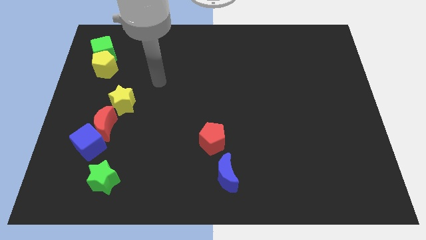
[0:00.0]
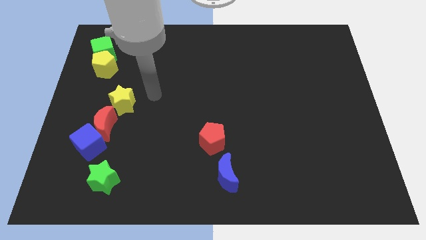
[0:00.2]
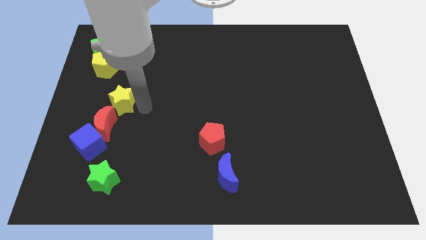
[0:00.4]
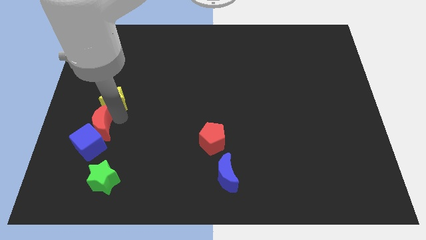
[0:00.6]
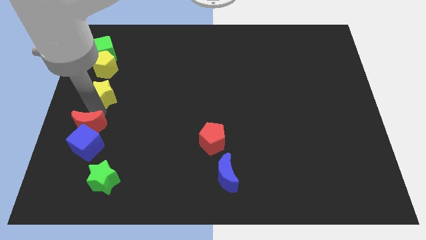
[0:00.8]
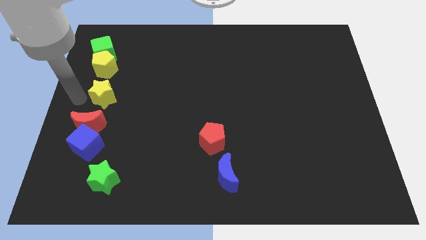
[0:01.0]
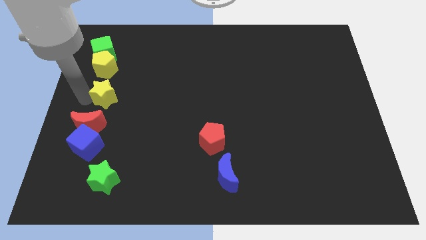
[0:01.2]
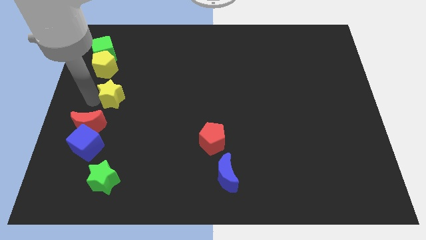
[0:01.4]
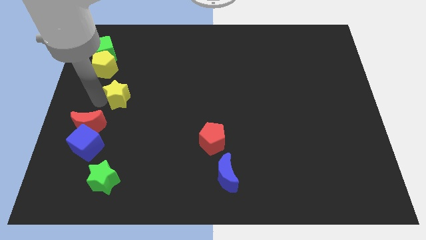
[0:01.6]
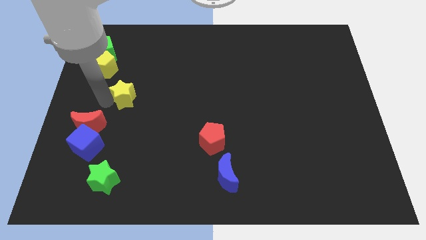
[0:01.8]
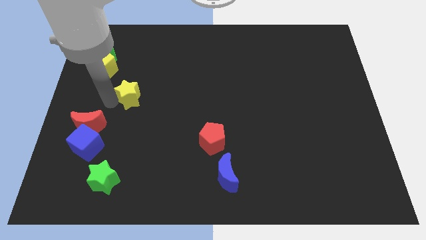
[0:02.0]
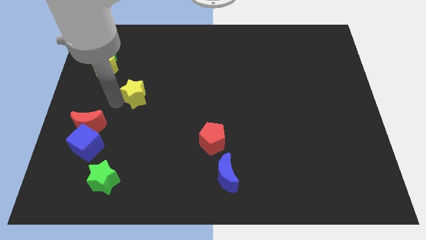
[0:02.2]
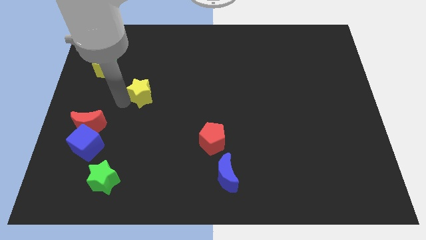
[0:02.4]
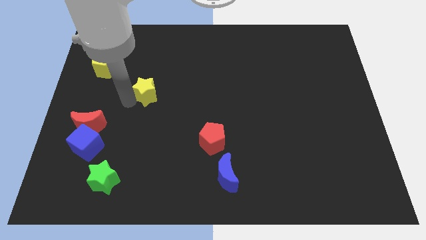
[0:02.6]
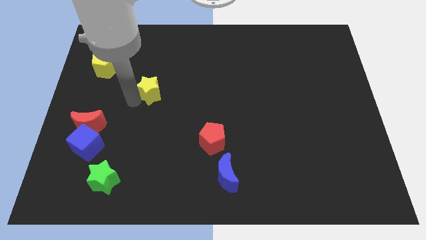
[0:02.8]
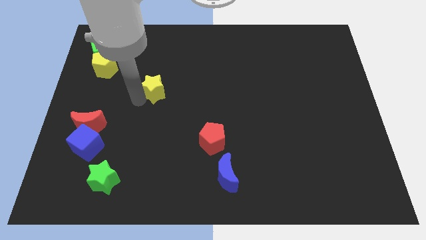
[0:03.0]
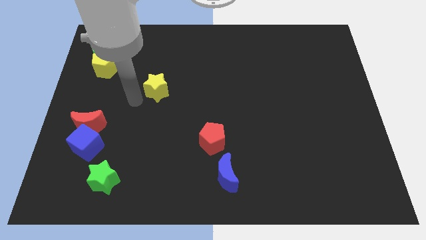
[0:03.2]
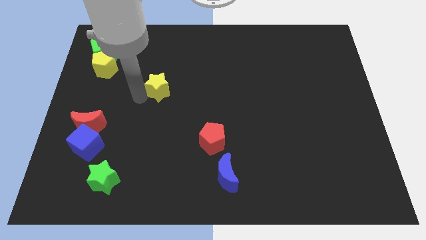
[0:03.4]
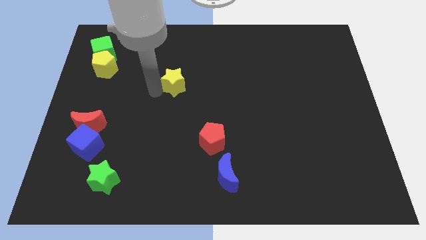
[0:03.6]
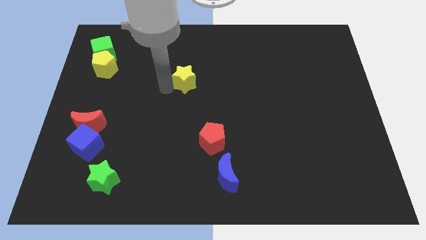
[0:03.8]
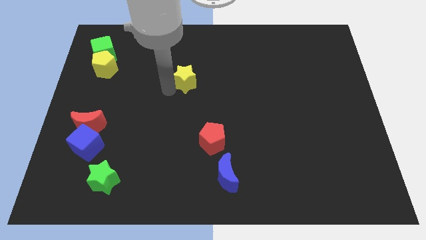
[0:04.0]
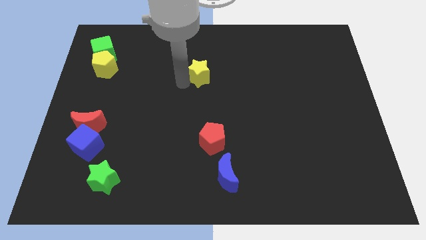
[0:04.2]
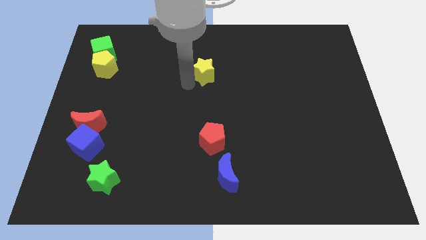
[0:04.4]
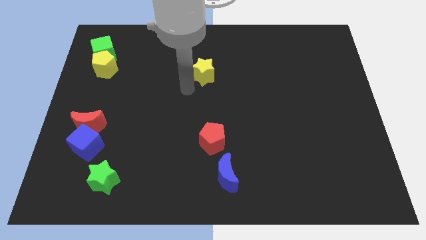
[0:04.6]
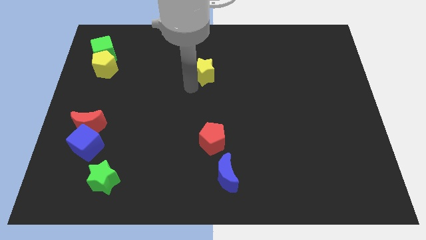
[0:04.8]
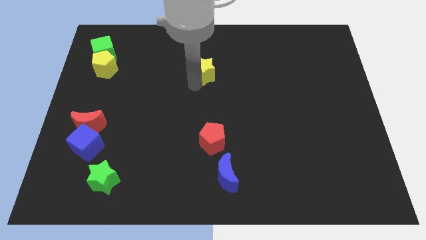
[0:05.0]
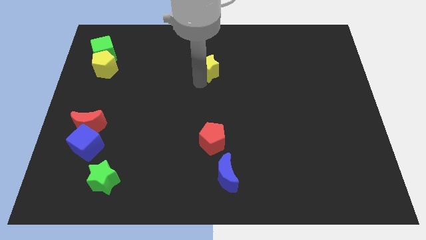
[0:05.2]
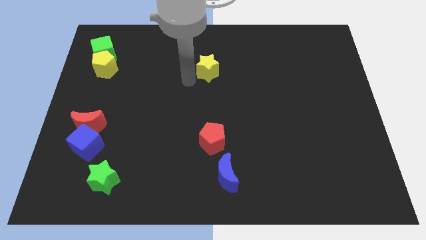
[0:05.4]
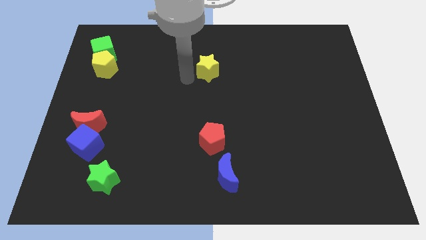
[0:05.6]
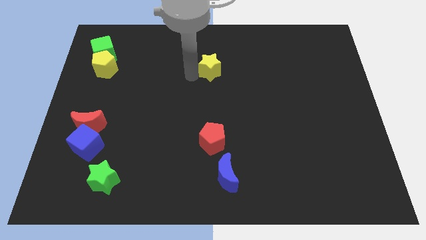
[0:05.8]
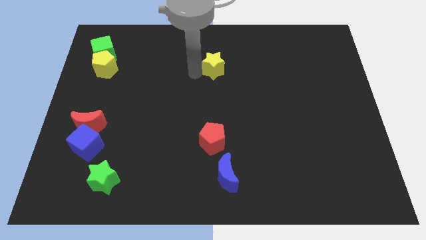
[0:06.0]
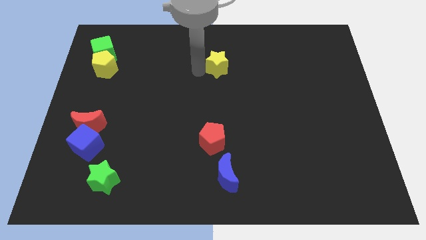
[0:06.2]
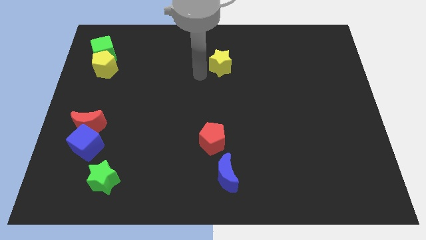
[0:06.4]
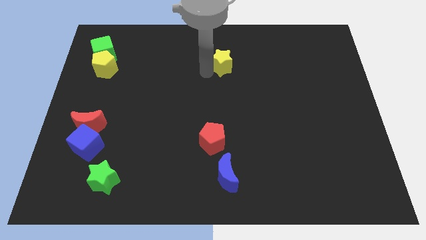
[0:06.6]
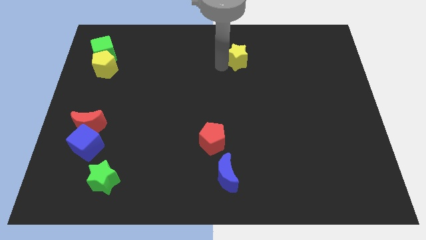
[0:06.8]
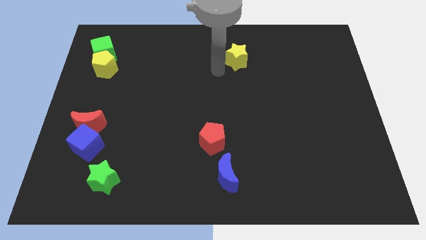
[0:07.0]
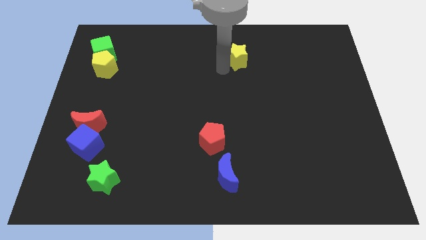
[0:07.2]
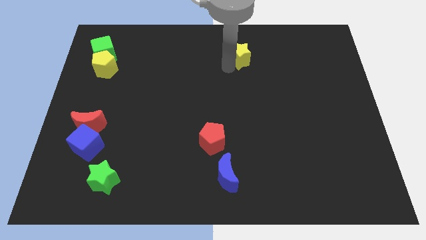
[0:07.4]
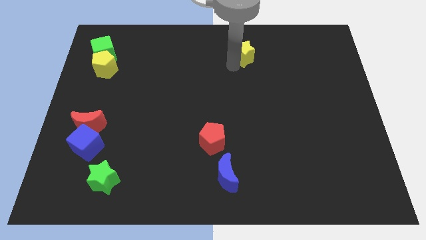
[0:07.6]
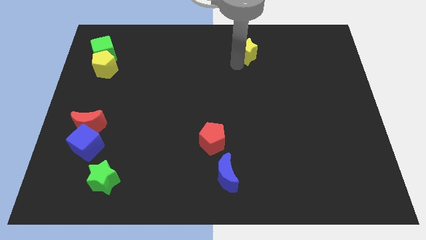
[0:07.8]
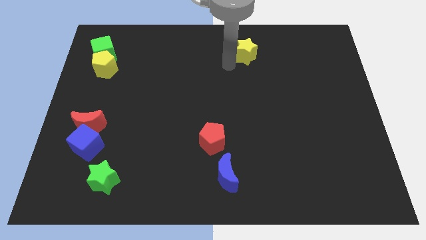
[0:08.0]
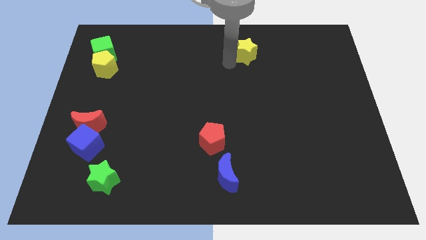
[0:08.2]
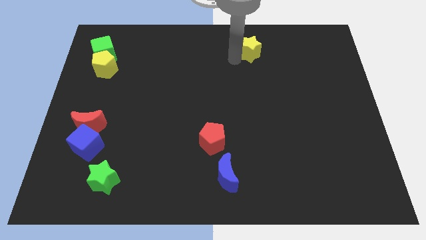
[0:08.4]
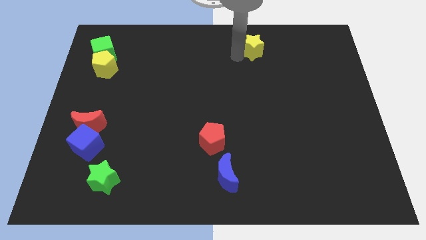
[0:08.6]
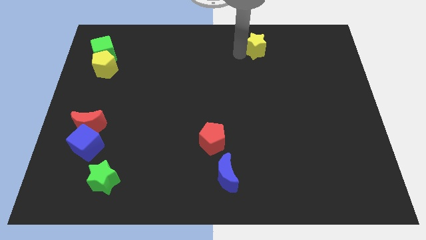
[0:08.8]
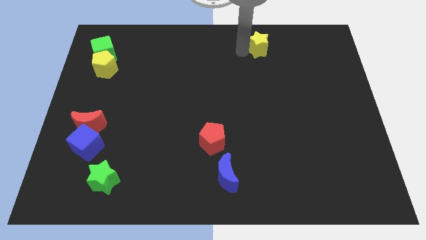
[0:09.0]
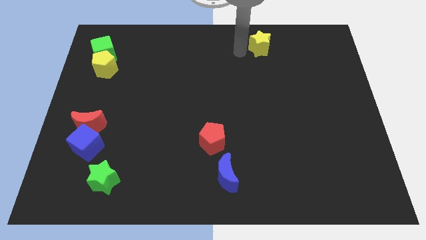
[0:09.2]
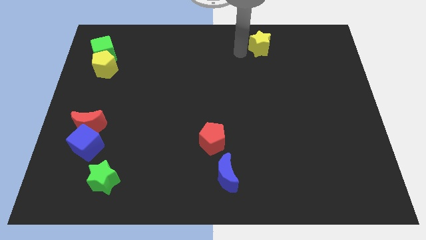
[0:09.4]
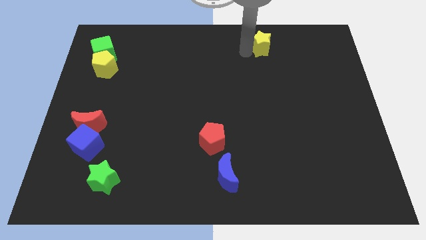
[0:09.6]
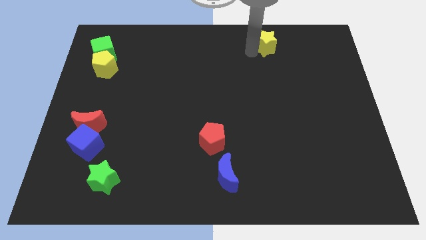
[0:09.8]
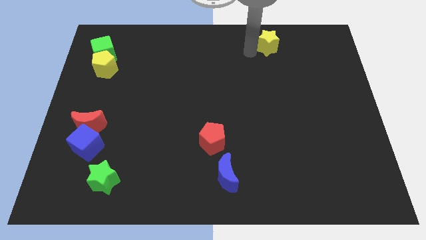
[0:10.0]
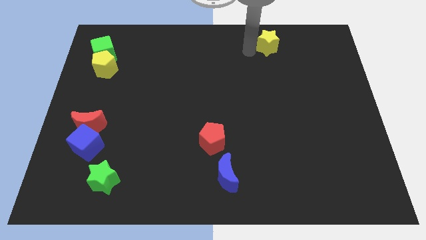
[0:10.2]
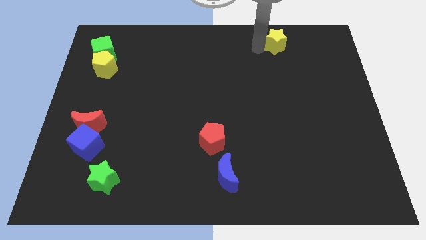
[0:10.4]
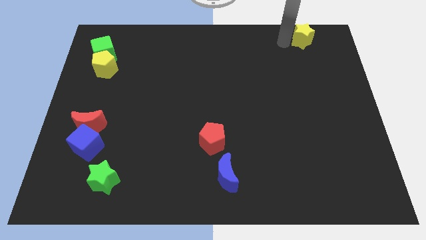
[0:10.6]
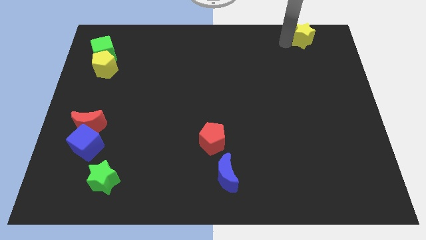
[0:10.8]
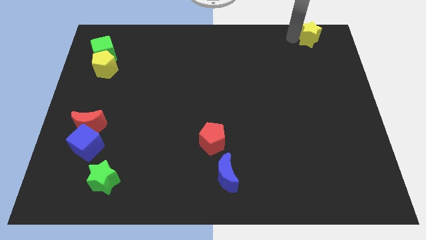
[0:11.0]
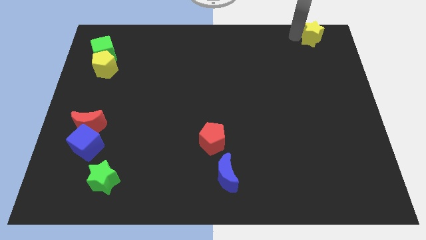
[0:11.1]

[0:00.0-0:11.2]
push the yellow star to the top right corner

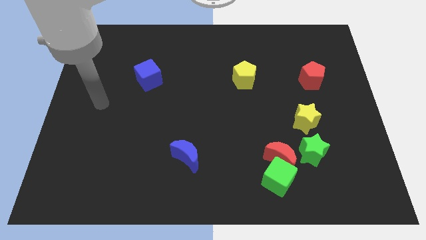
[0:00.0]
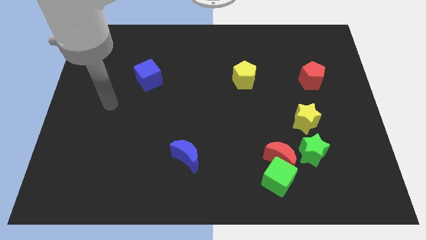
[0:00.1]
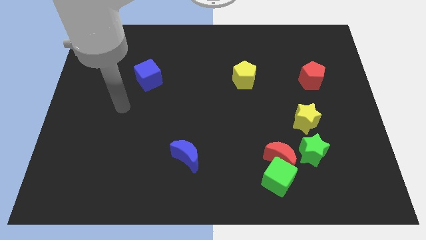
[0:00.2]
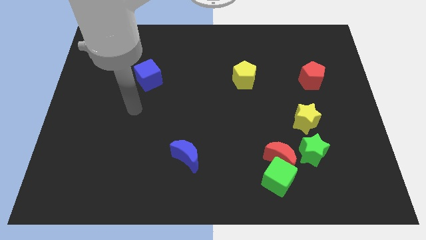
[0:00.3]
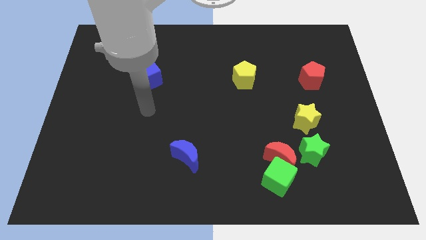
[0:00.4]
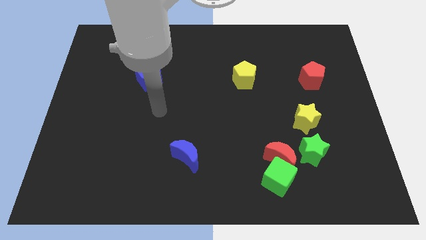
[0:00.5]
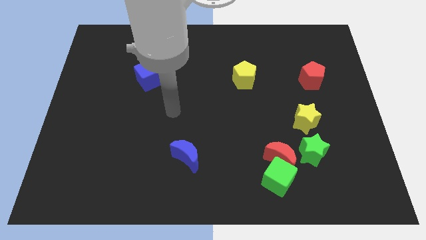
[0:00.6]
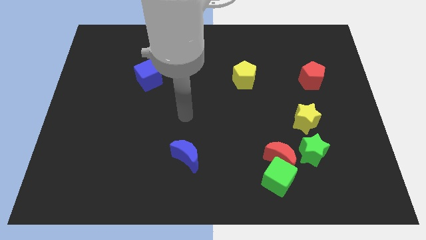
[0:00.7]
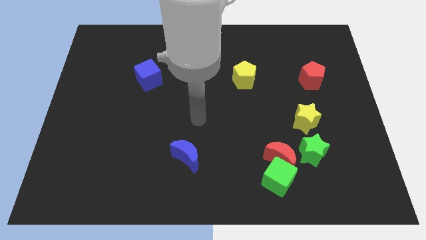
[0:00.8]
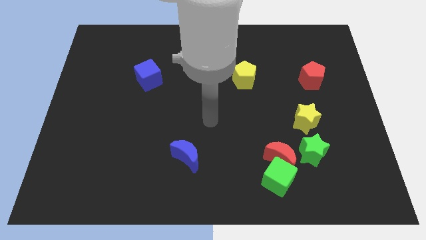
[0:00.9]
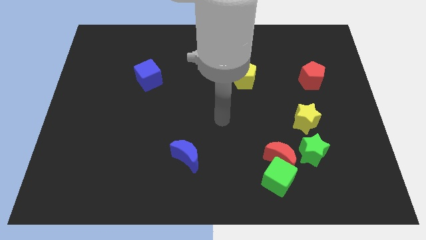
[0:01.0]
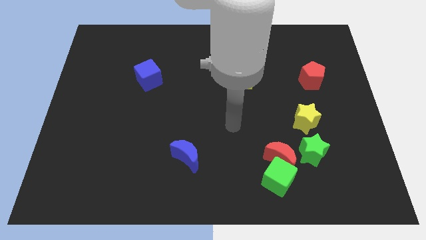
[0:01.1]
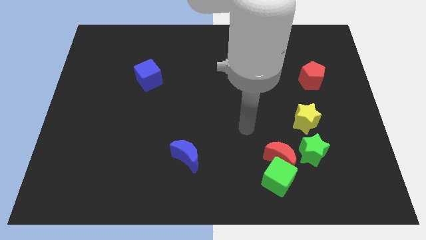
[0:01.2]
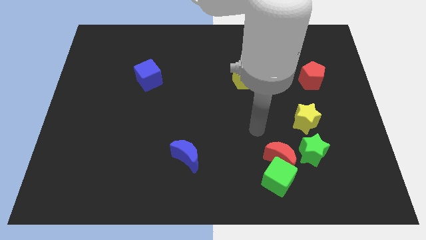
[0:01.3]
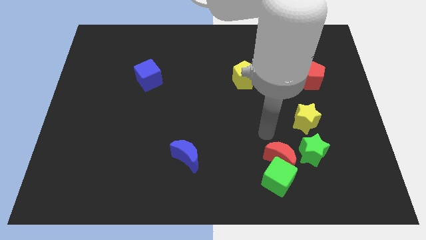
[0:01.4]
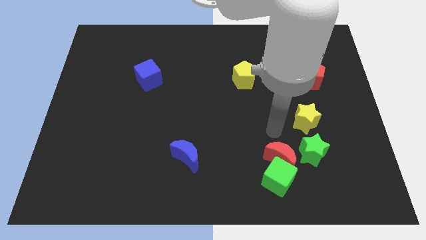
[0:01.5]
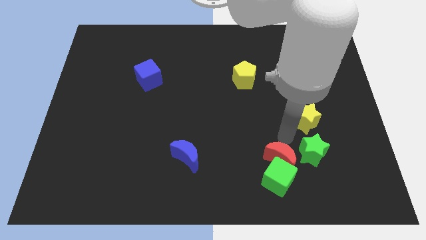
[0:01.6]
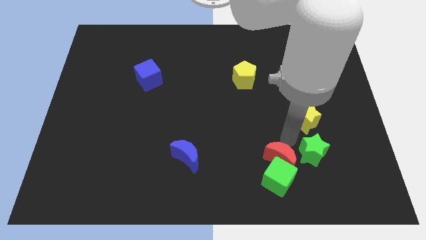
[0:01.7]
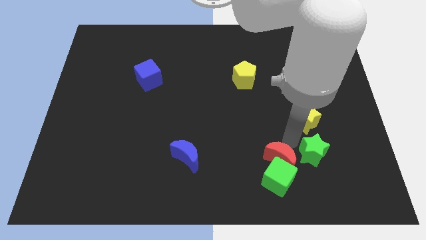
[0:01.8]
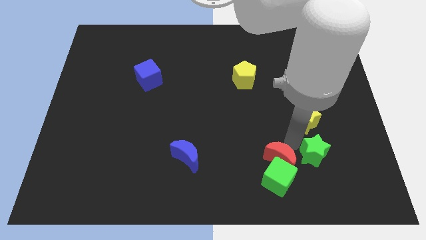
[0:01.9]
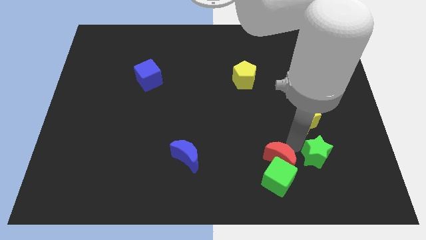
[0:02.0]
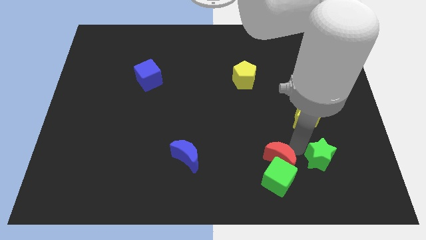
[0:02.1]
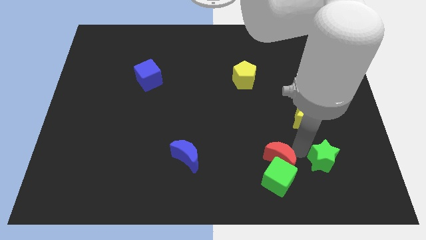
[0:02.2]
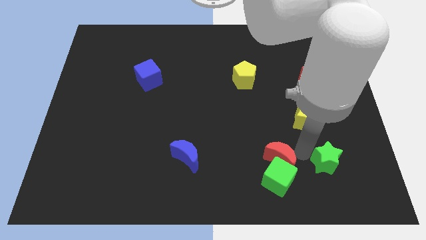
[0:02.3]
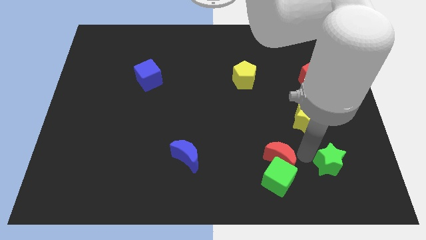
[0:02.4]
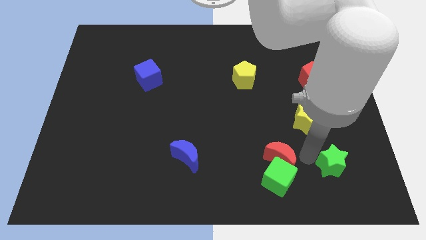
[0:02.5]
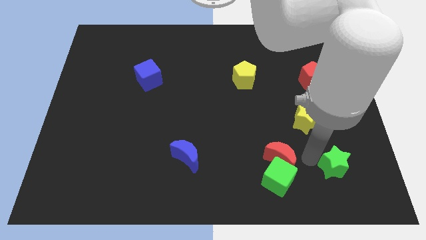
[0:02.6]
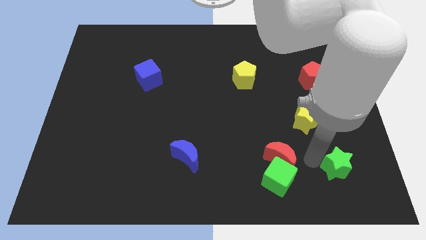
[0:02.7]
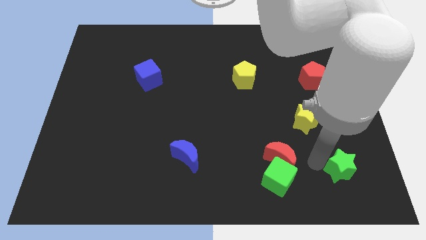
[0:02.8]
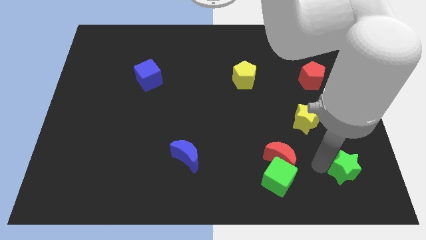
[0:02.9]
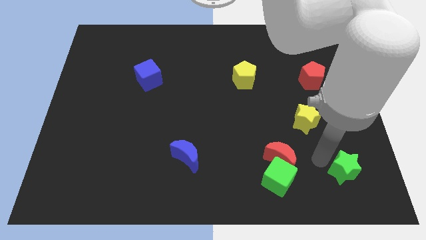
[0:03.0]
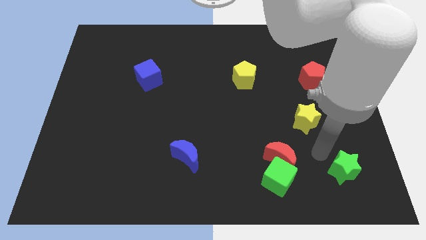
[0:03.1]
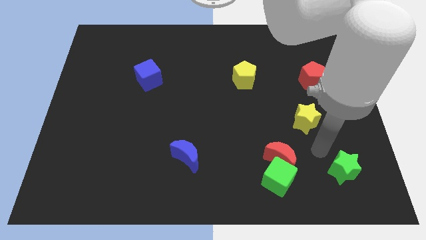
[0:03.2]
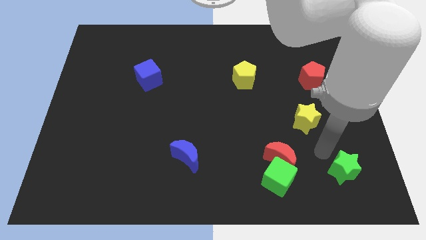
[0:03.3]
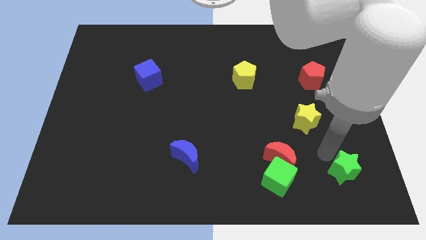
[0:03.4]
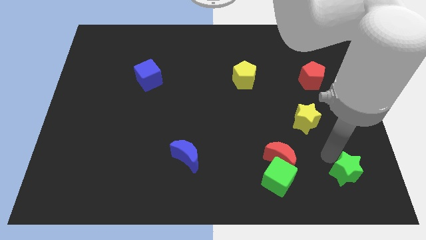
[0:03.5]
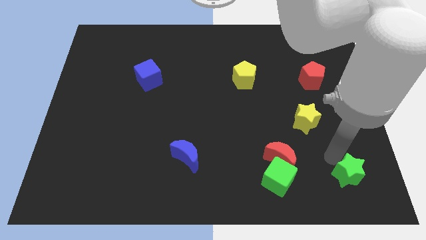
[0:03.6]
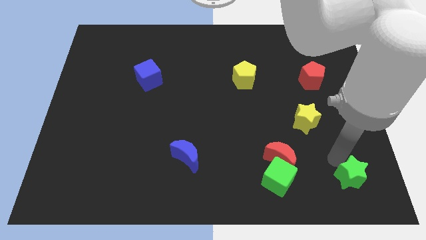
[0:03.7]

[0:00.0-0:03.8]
push the green star to the bottom right of the board
